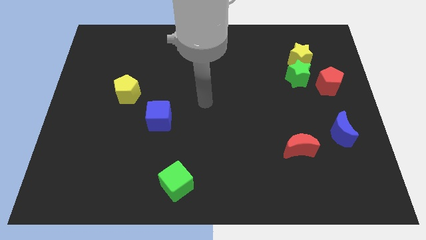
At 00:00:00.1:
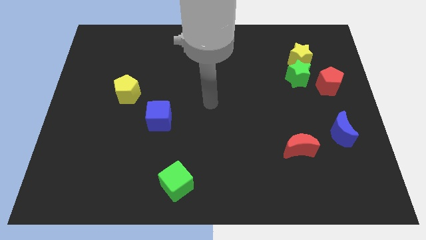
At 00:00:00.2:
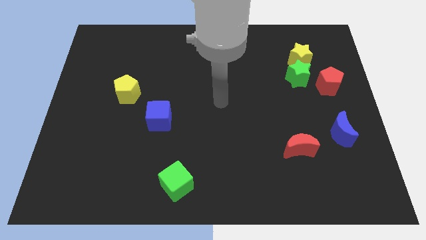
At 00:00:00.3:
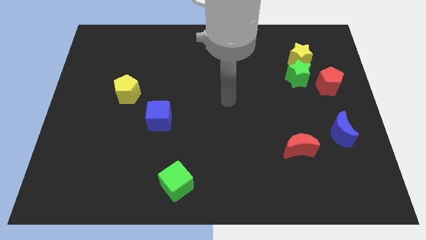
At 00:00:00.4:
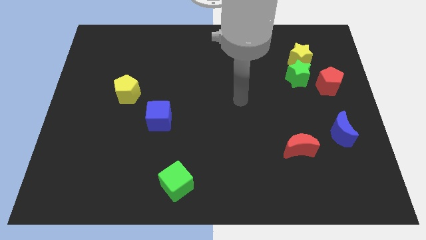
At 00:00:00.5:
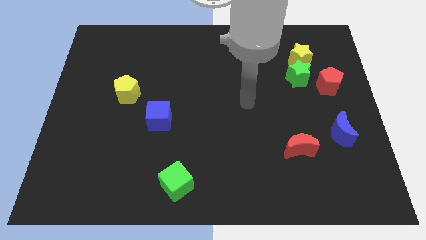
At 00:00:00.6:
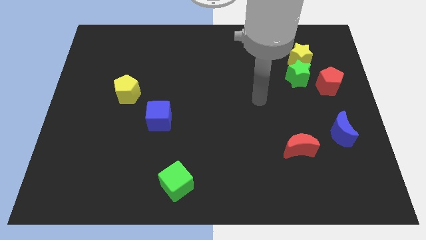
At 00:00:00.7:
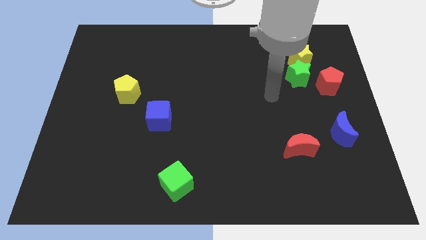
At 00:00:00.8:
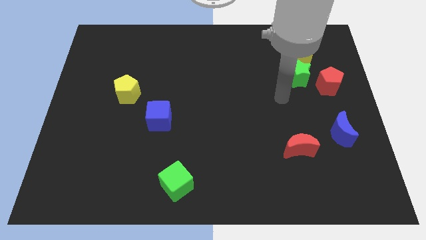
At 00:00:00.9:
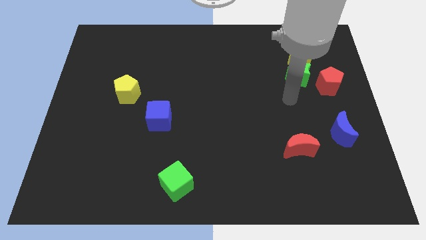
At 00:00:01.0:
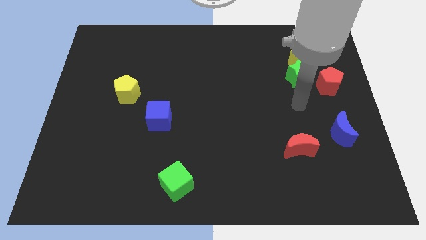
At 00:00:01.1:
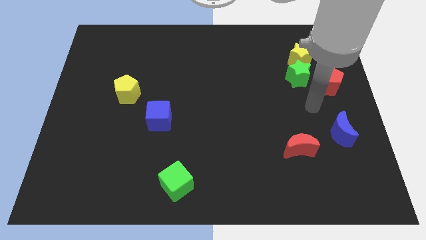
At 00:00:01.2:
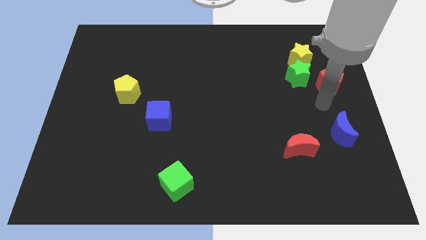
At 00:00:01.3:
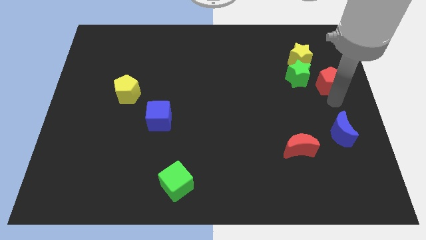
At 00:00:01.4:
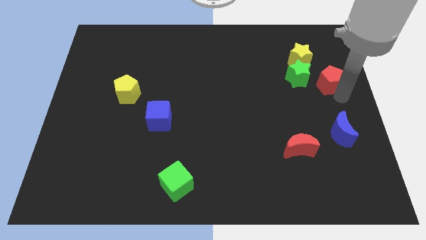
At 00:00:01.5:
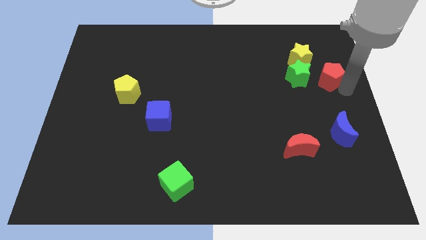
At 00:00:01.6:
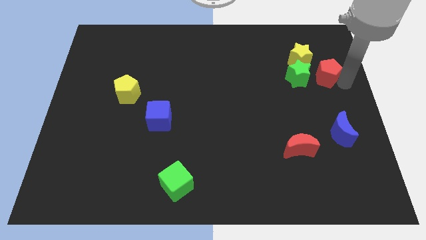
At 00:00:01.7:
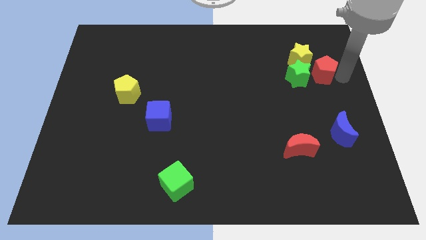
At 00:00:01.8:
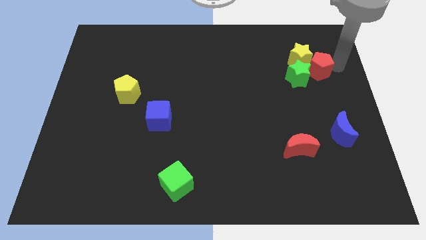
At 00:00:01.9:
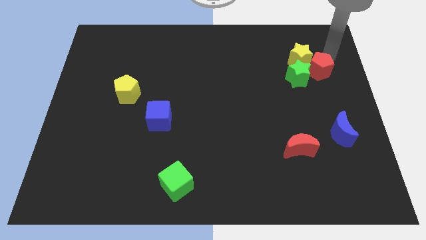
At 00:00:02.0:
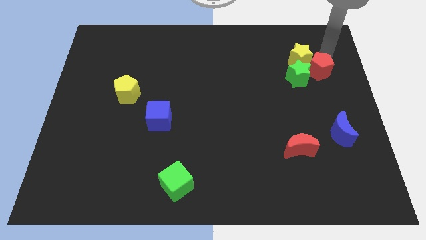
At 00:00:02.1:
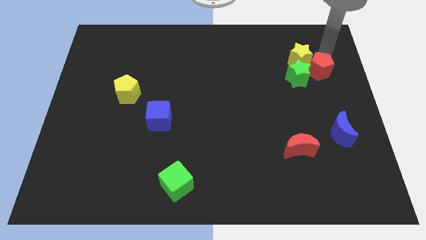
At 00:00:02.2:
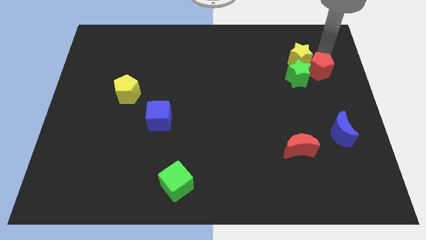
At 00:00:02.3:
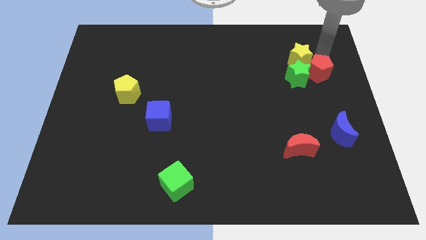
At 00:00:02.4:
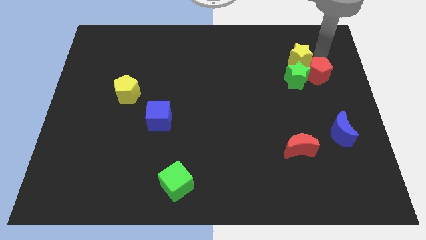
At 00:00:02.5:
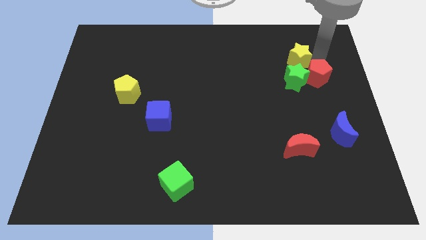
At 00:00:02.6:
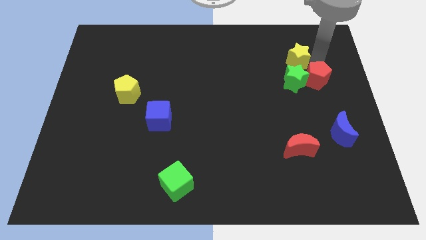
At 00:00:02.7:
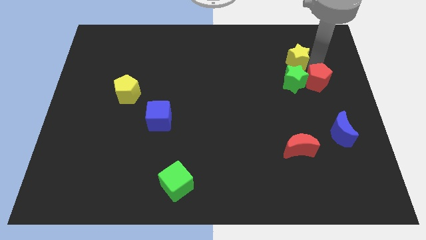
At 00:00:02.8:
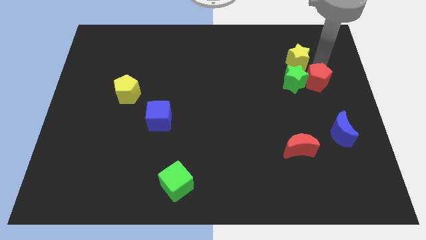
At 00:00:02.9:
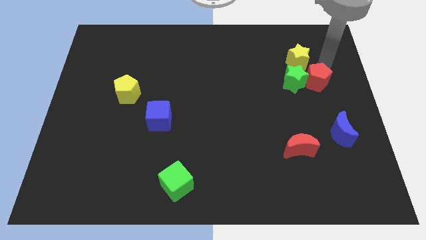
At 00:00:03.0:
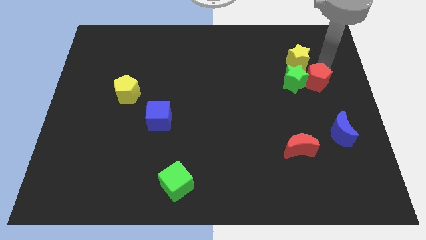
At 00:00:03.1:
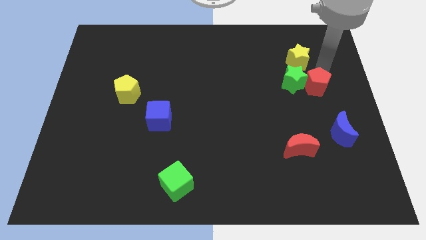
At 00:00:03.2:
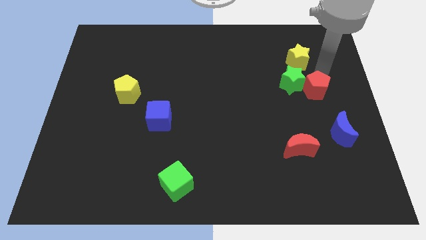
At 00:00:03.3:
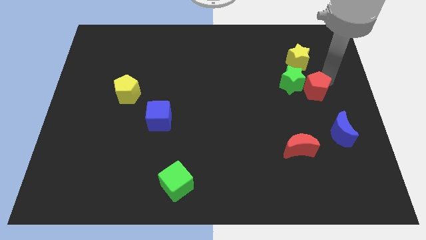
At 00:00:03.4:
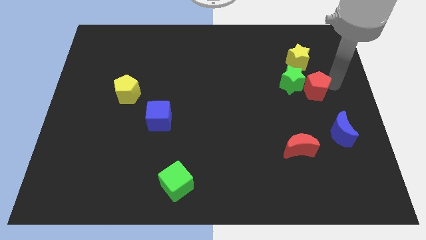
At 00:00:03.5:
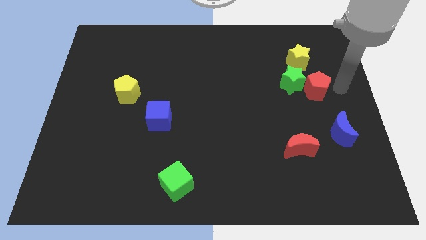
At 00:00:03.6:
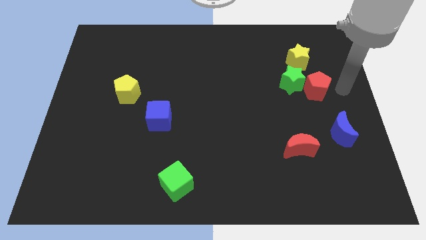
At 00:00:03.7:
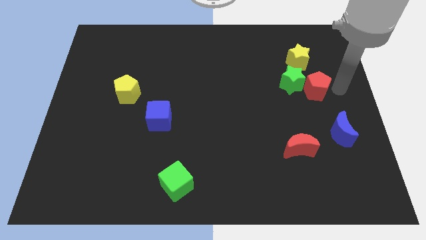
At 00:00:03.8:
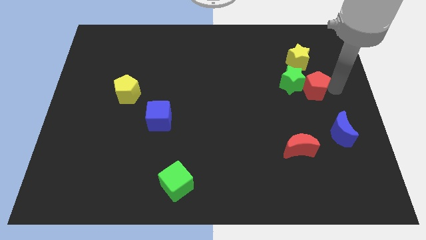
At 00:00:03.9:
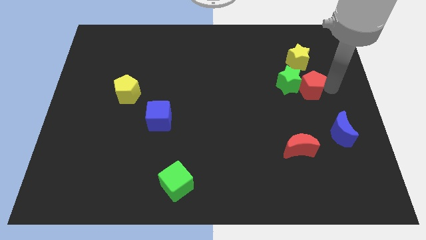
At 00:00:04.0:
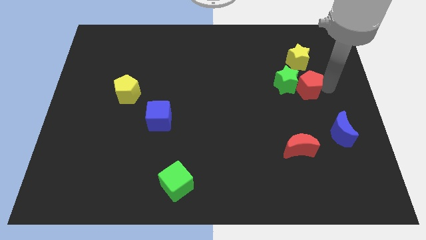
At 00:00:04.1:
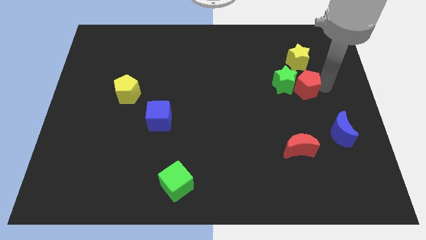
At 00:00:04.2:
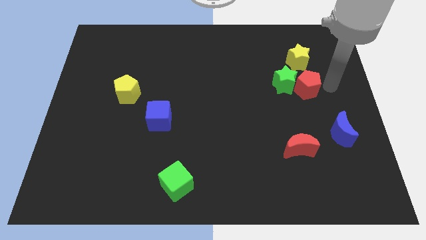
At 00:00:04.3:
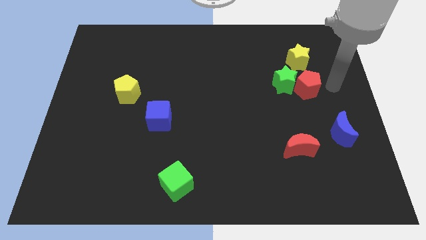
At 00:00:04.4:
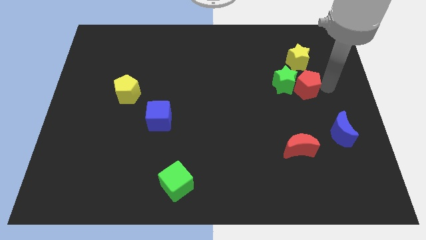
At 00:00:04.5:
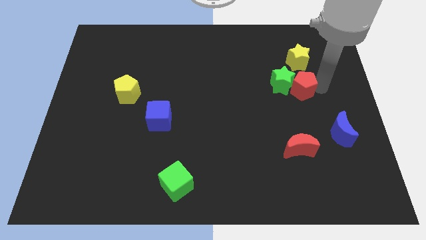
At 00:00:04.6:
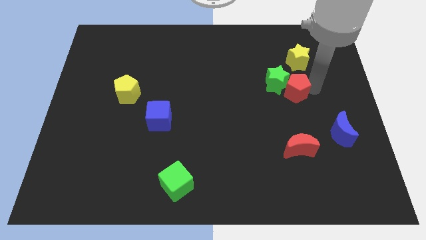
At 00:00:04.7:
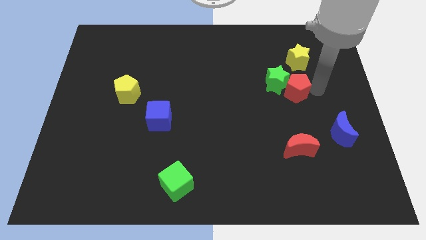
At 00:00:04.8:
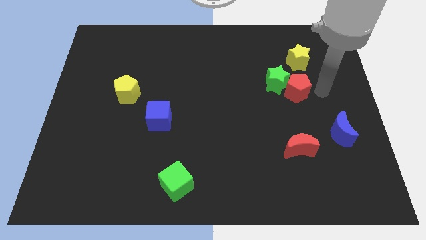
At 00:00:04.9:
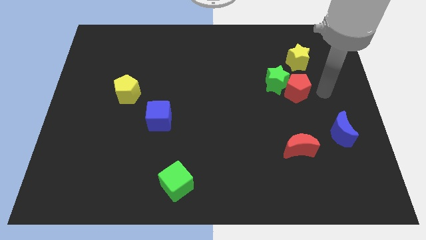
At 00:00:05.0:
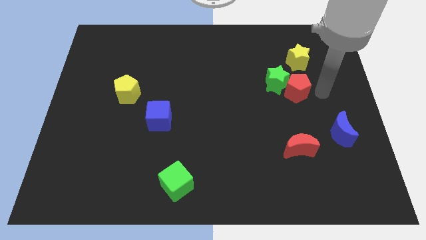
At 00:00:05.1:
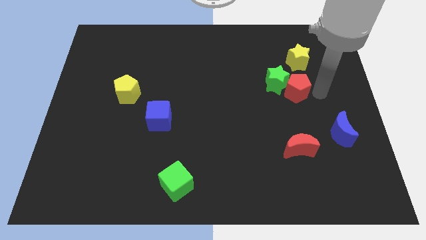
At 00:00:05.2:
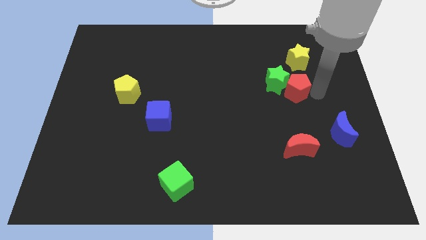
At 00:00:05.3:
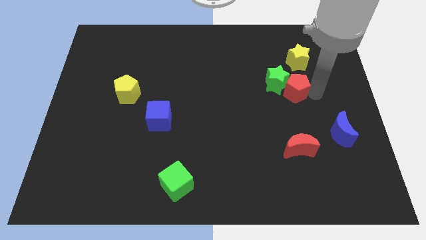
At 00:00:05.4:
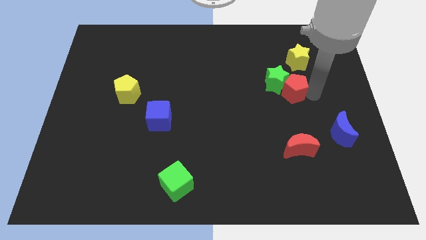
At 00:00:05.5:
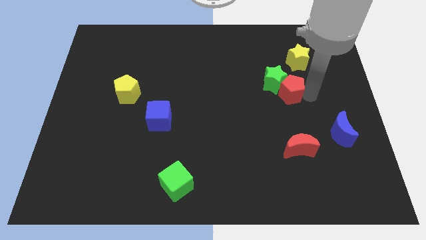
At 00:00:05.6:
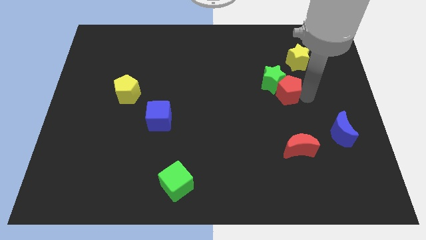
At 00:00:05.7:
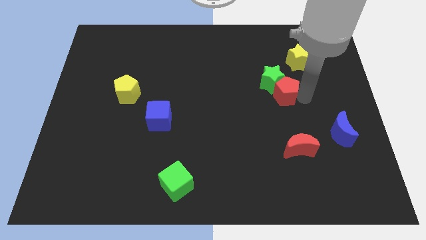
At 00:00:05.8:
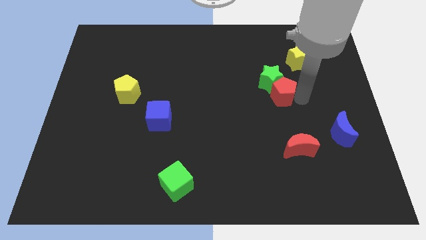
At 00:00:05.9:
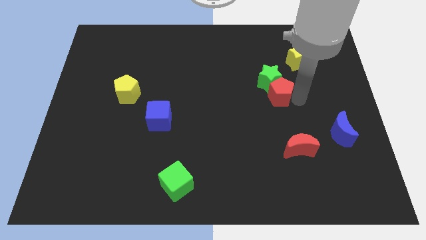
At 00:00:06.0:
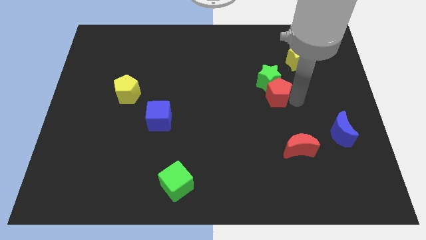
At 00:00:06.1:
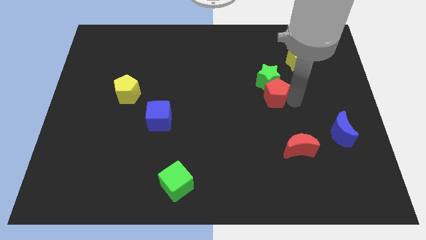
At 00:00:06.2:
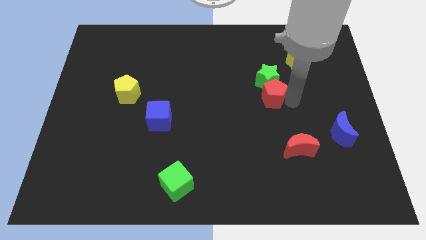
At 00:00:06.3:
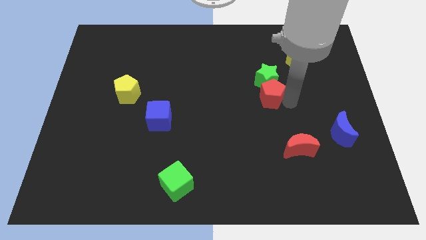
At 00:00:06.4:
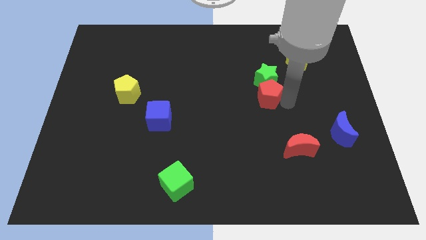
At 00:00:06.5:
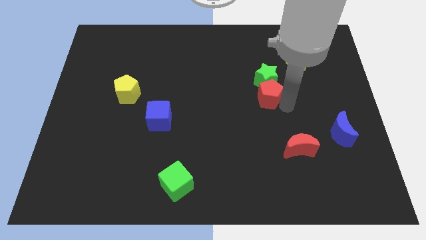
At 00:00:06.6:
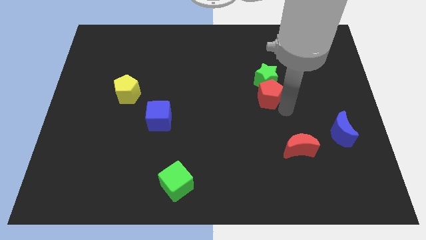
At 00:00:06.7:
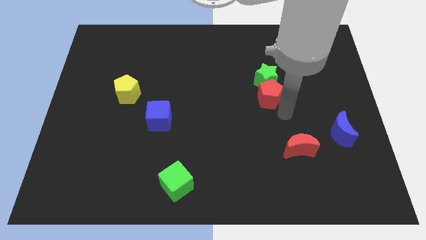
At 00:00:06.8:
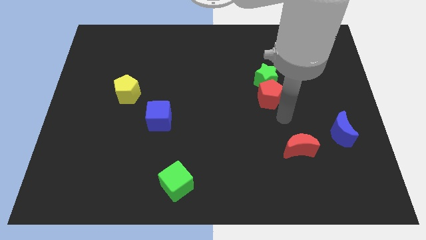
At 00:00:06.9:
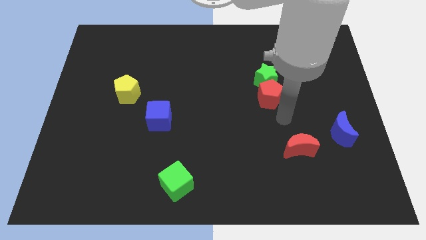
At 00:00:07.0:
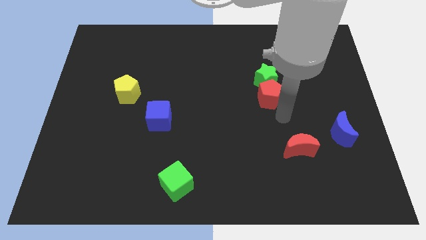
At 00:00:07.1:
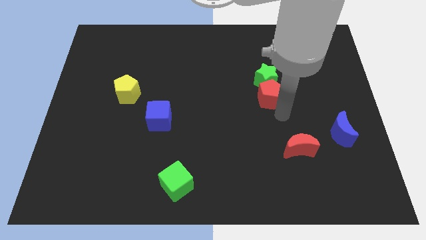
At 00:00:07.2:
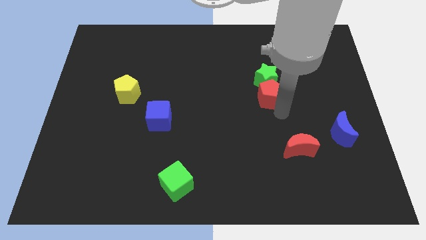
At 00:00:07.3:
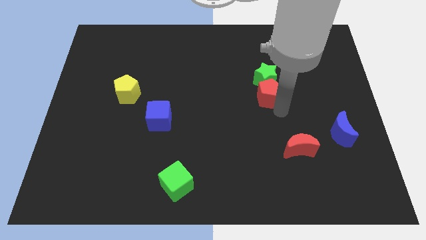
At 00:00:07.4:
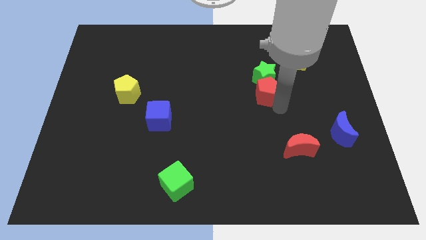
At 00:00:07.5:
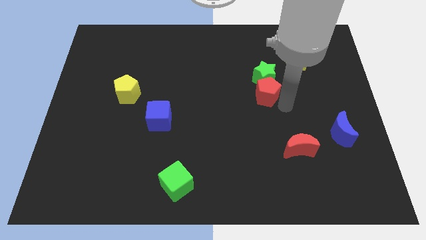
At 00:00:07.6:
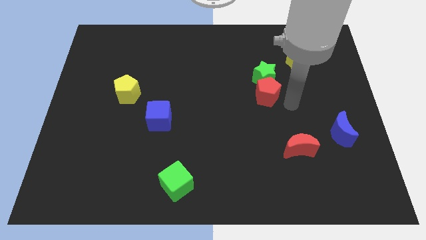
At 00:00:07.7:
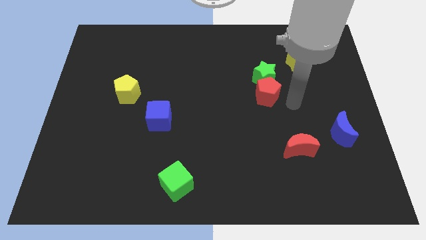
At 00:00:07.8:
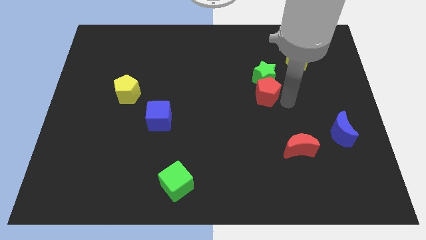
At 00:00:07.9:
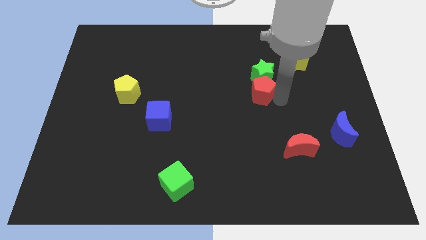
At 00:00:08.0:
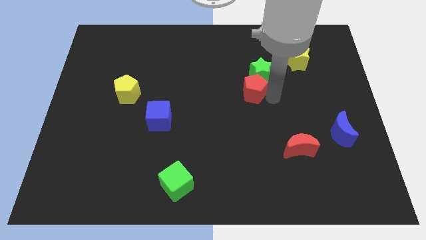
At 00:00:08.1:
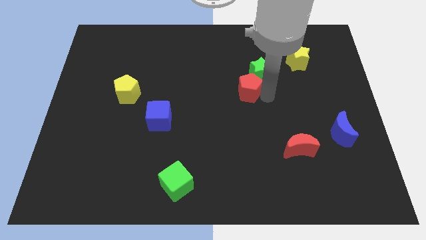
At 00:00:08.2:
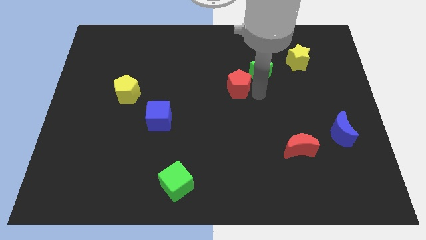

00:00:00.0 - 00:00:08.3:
slide the red pentagon left
